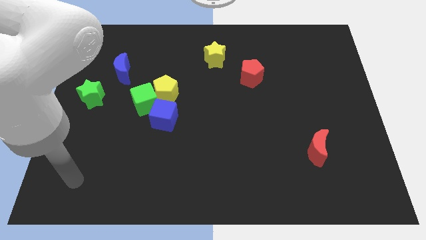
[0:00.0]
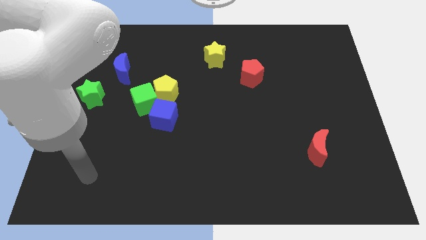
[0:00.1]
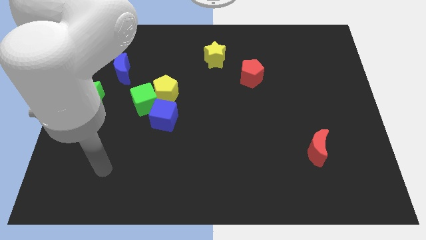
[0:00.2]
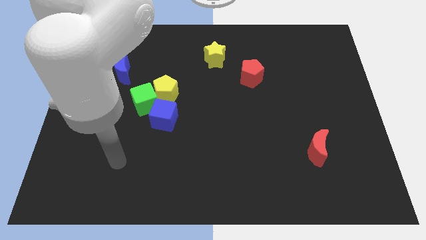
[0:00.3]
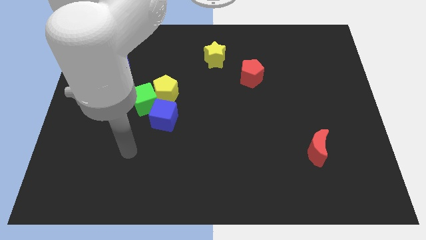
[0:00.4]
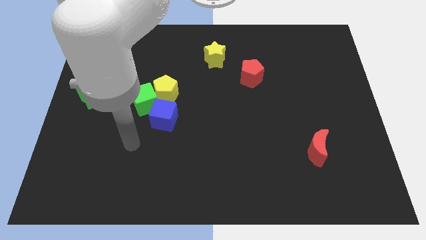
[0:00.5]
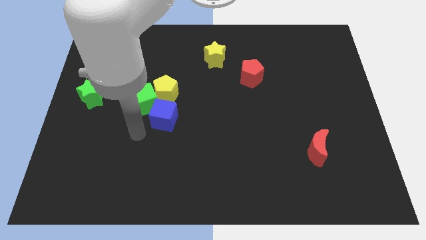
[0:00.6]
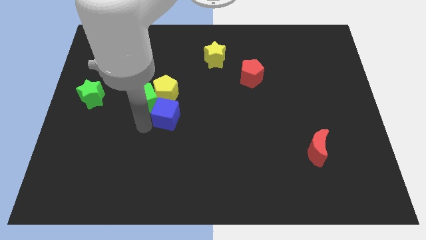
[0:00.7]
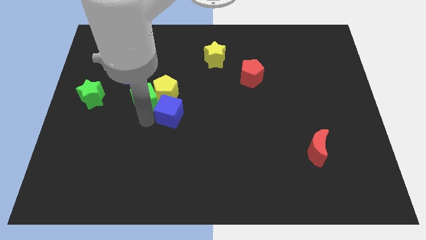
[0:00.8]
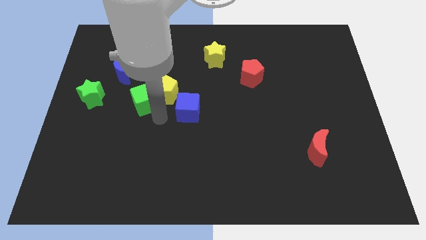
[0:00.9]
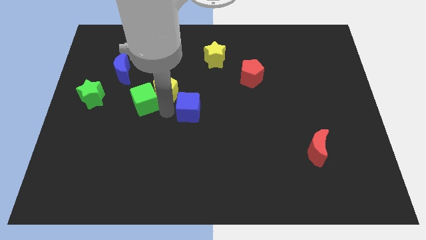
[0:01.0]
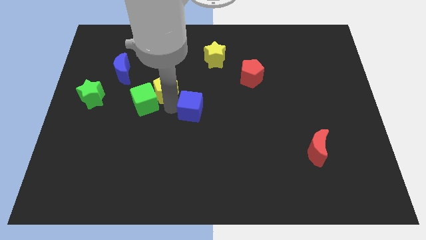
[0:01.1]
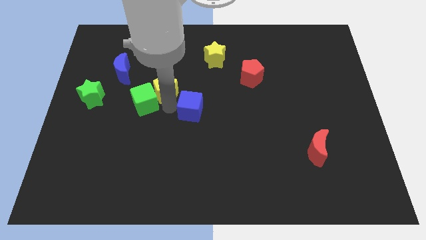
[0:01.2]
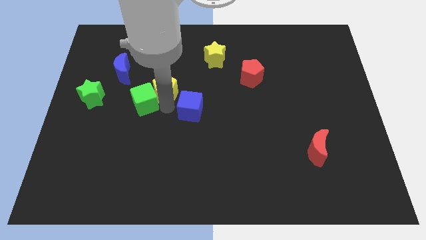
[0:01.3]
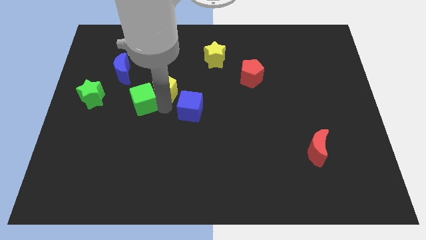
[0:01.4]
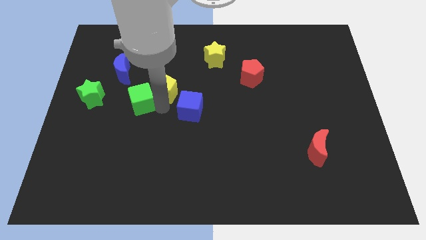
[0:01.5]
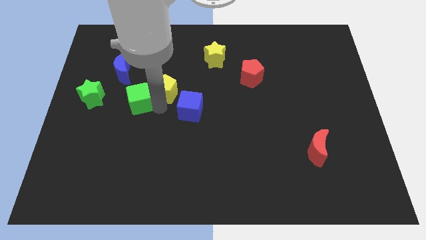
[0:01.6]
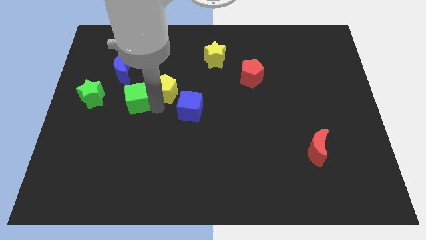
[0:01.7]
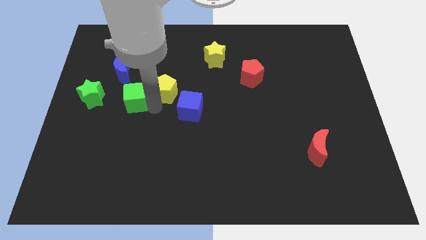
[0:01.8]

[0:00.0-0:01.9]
move the green cube away from the yellow pentagon and blue cube

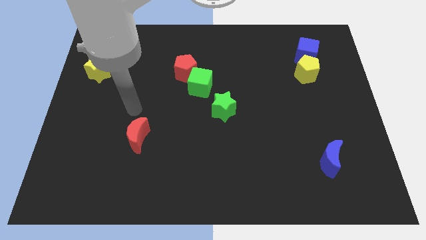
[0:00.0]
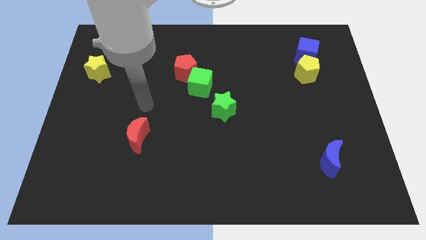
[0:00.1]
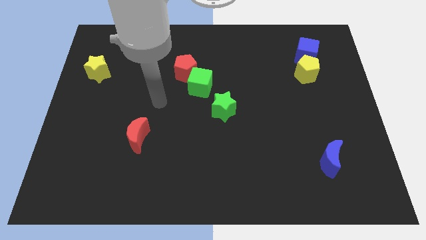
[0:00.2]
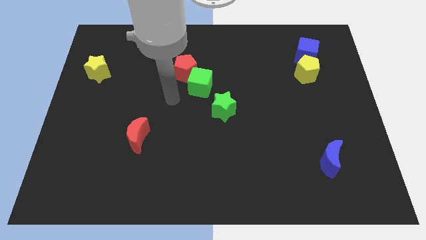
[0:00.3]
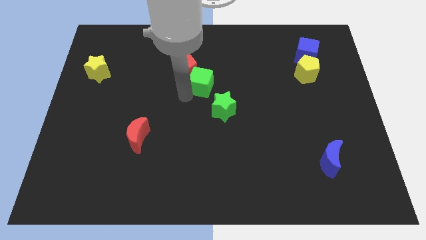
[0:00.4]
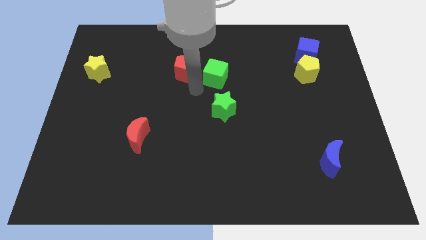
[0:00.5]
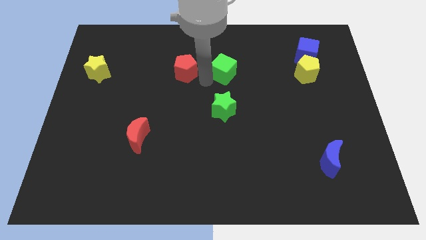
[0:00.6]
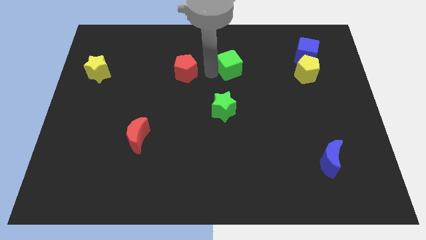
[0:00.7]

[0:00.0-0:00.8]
separate the red pentagon from the green cube

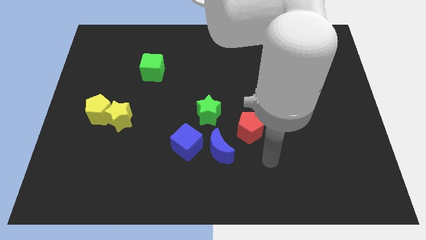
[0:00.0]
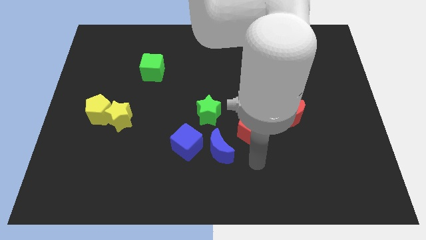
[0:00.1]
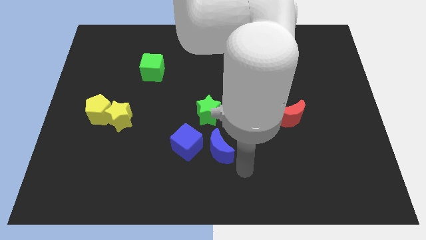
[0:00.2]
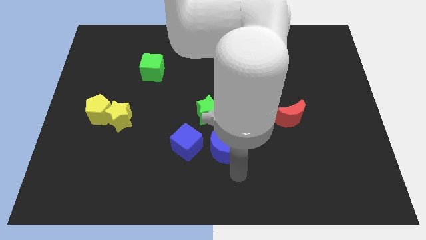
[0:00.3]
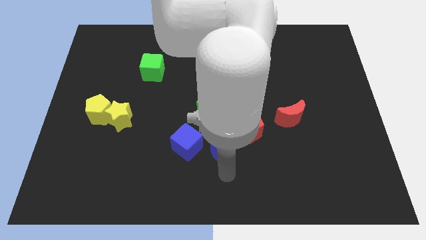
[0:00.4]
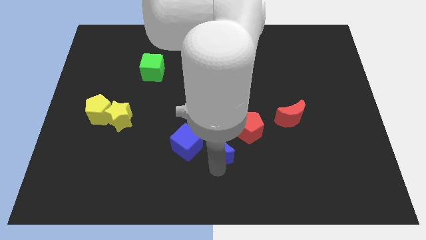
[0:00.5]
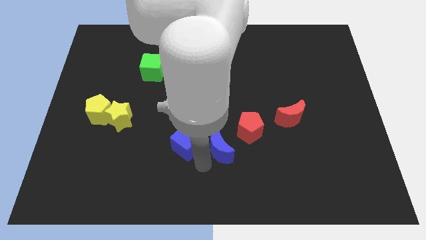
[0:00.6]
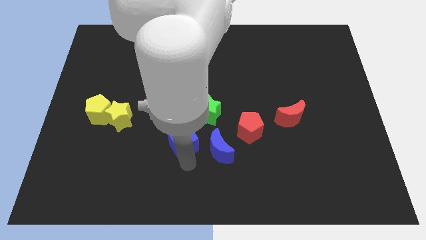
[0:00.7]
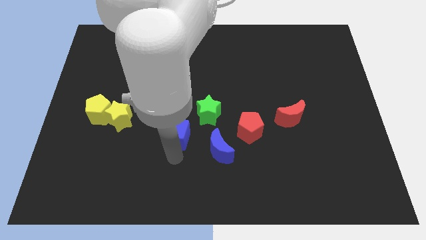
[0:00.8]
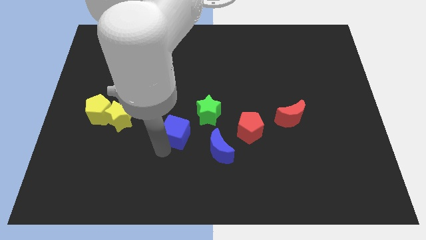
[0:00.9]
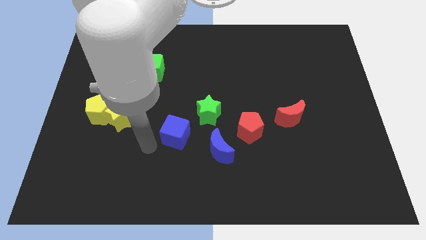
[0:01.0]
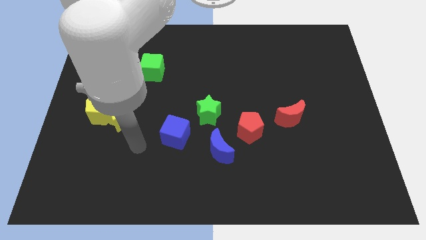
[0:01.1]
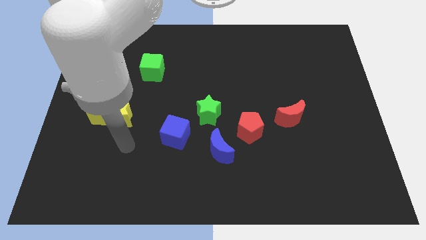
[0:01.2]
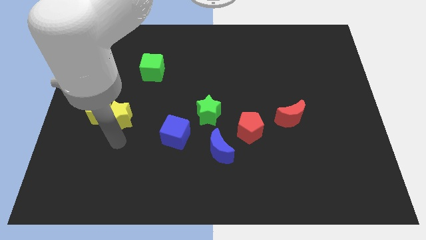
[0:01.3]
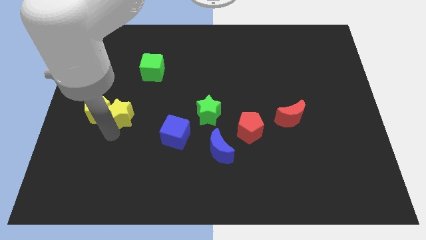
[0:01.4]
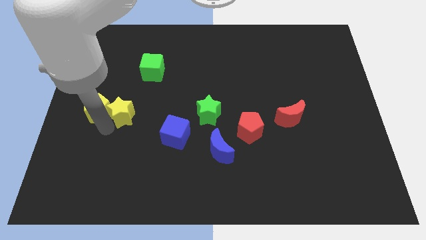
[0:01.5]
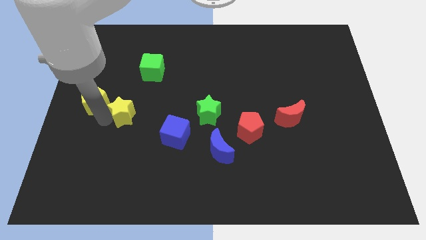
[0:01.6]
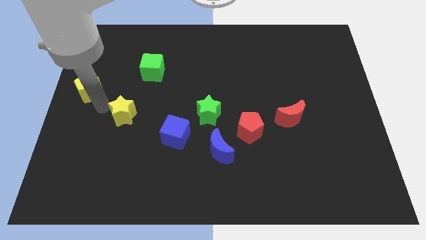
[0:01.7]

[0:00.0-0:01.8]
move the yellow star away from the yellow pentagon

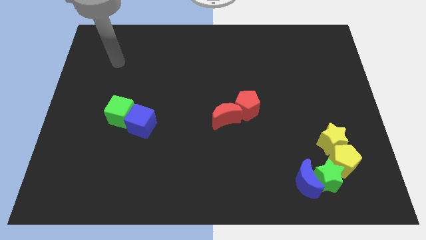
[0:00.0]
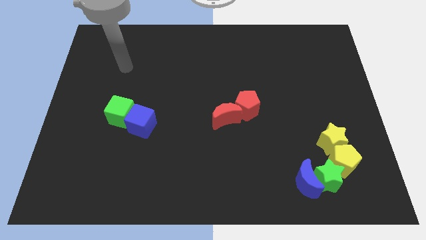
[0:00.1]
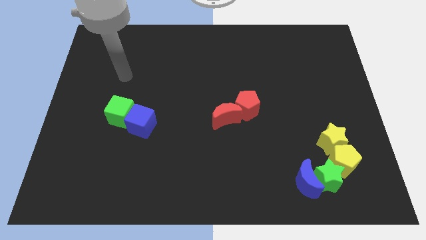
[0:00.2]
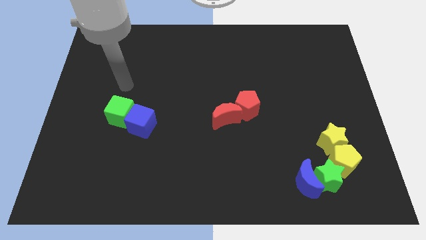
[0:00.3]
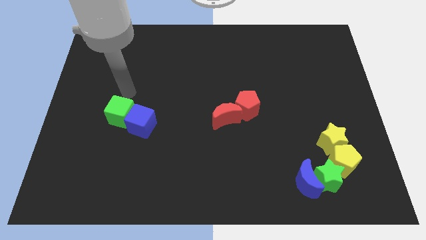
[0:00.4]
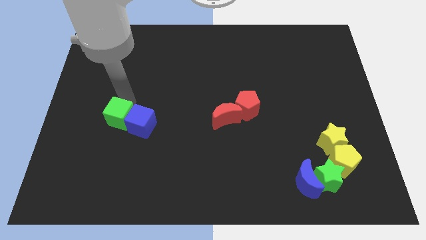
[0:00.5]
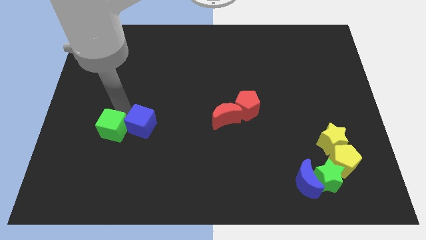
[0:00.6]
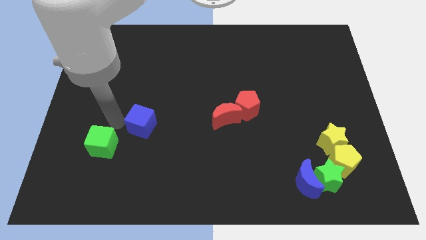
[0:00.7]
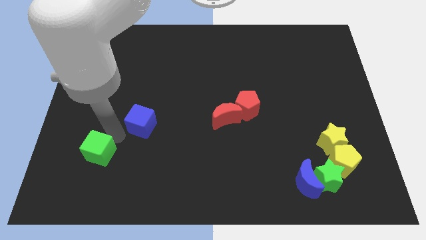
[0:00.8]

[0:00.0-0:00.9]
move the blue cube away from the green cube

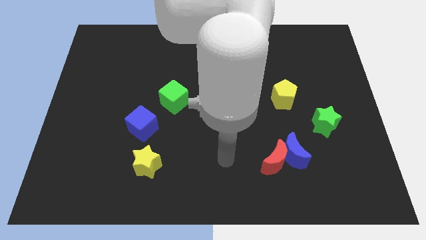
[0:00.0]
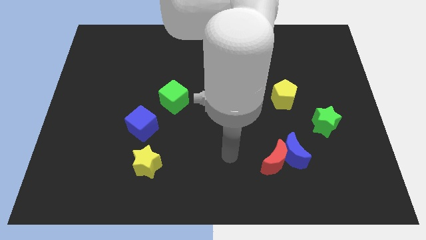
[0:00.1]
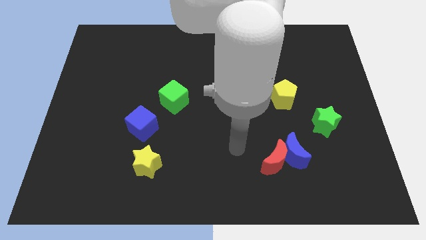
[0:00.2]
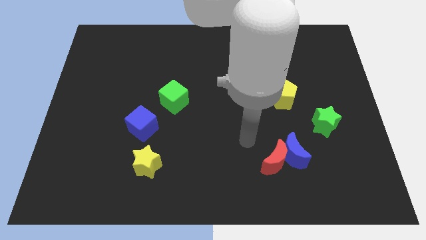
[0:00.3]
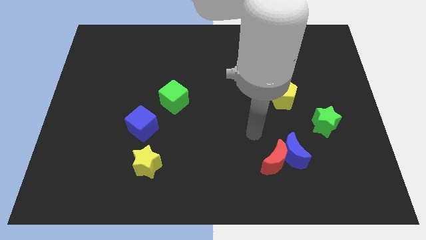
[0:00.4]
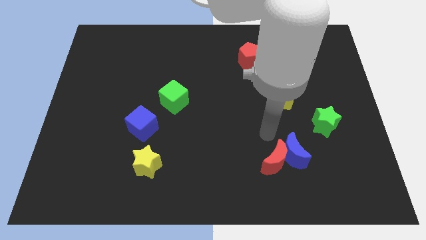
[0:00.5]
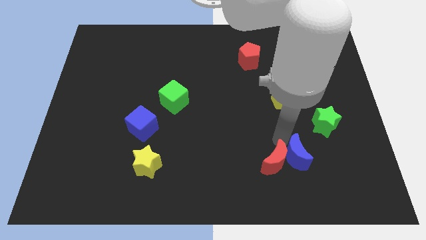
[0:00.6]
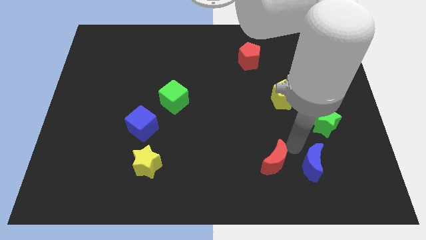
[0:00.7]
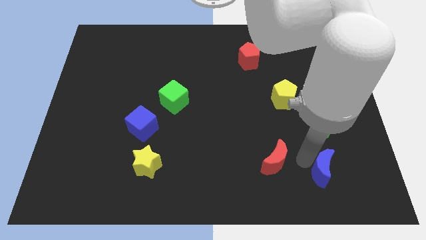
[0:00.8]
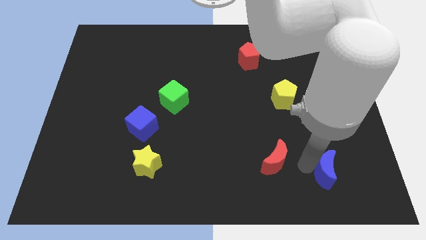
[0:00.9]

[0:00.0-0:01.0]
pull the red moon apart from the blue moon

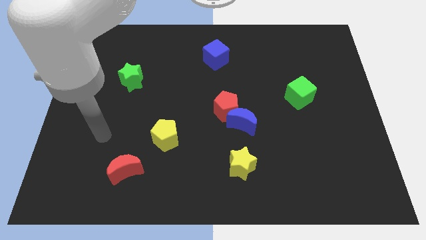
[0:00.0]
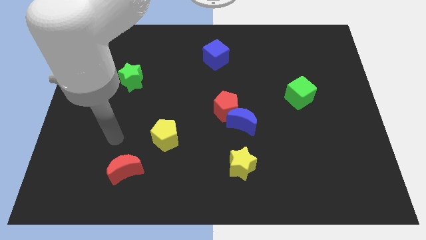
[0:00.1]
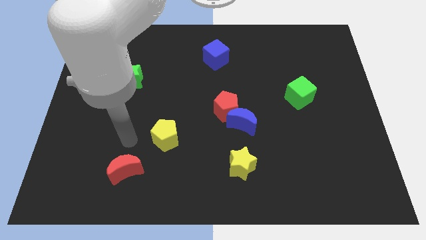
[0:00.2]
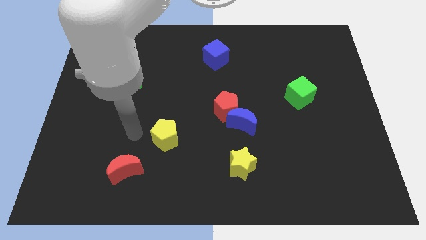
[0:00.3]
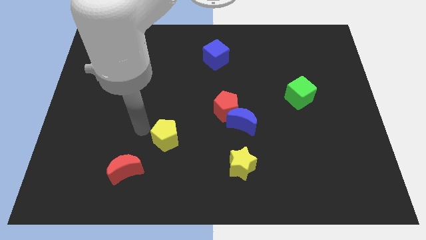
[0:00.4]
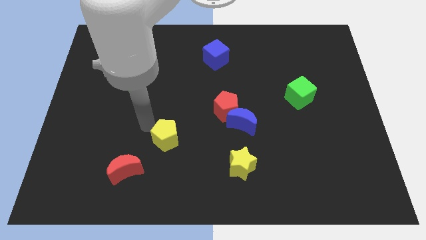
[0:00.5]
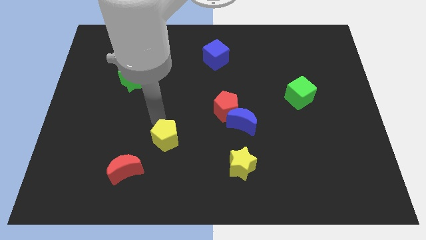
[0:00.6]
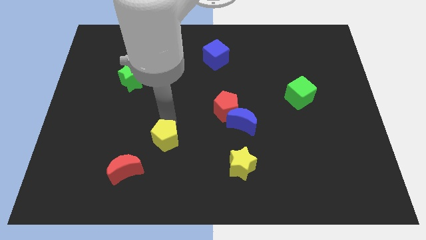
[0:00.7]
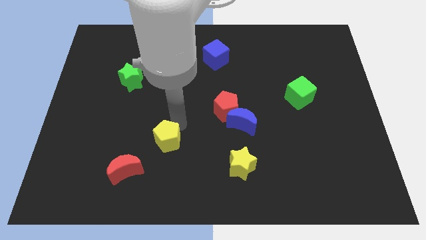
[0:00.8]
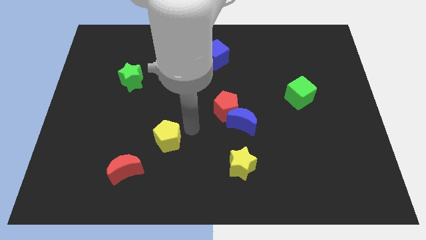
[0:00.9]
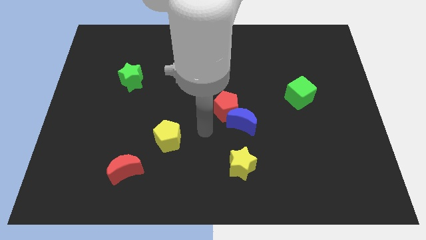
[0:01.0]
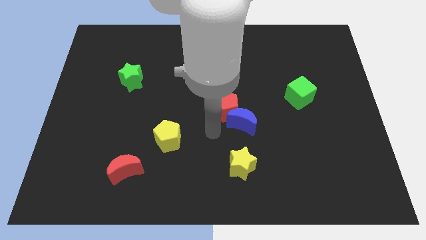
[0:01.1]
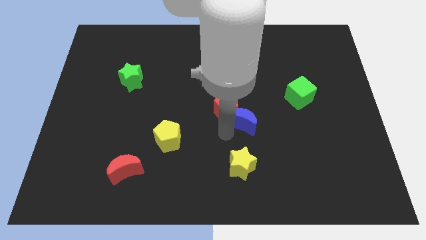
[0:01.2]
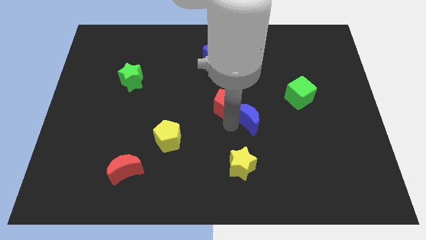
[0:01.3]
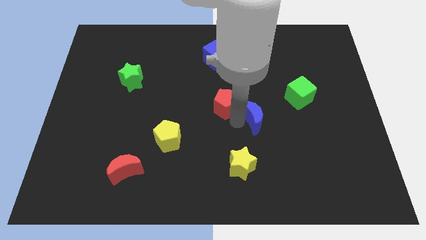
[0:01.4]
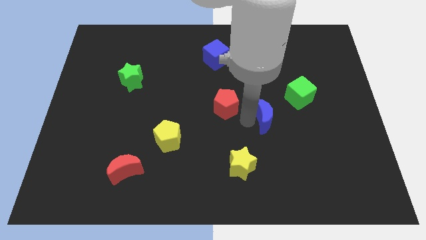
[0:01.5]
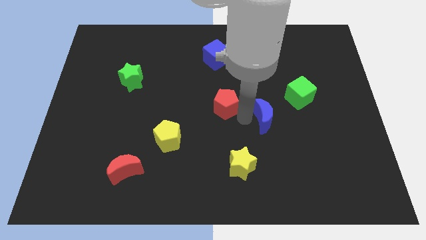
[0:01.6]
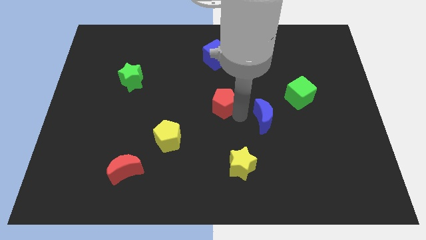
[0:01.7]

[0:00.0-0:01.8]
pull the red pentagon apart from the blue moon

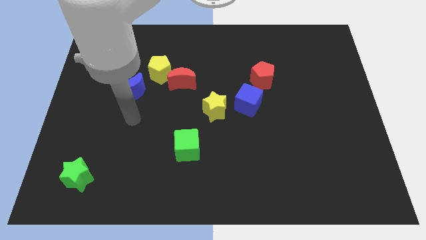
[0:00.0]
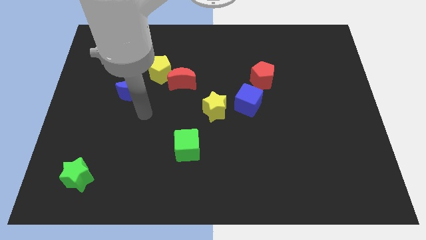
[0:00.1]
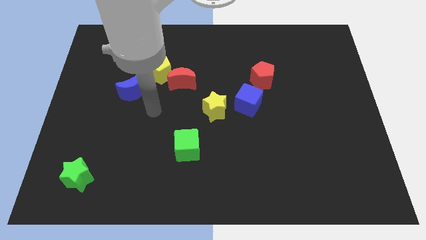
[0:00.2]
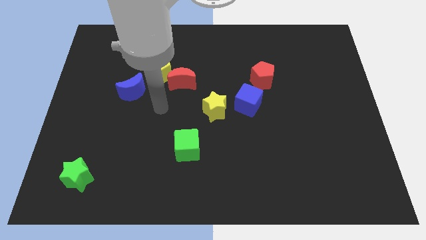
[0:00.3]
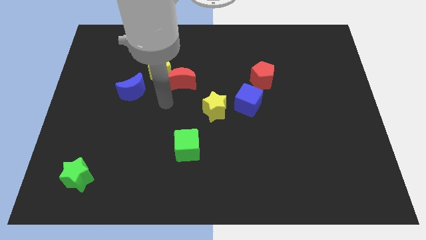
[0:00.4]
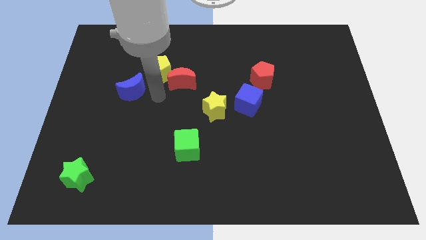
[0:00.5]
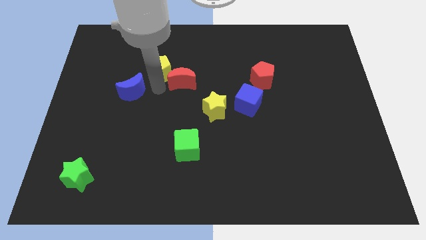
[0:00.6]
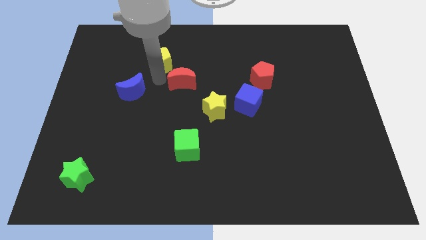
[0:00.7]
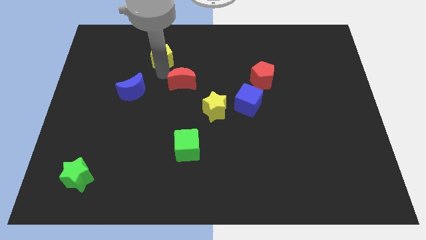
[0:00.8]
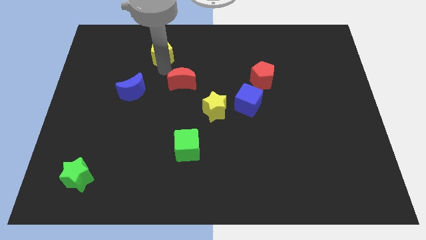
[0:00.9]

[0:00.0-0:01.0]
pull the red moon apart from the yellow pentagon

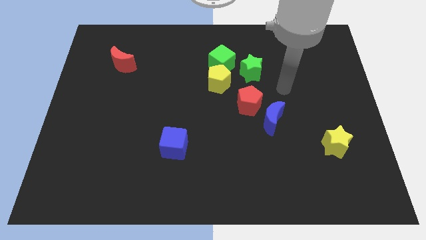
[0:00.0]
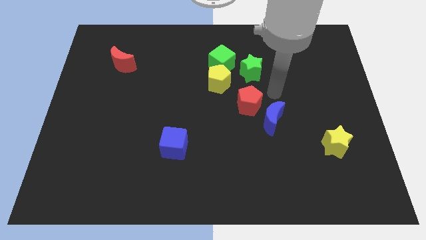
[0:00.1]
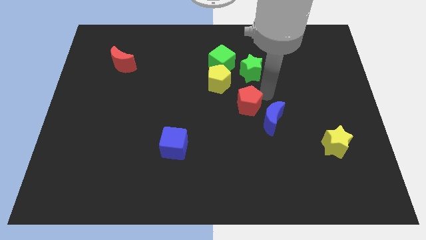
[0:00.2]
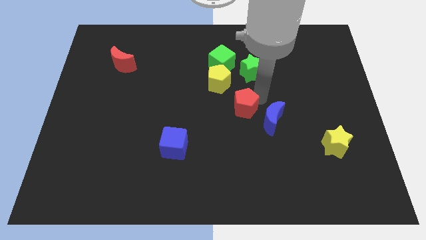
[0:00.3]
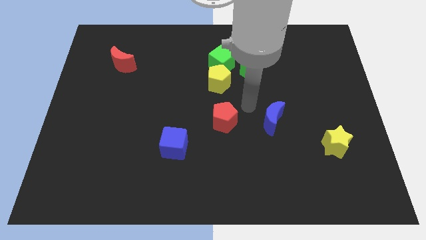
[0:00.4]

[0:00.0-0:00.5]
separate the blue moon from the red pentagon
